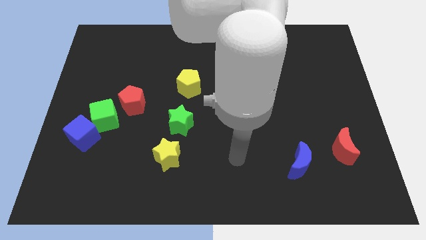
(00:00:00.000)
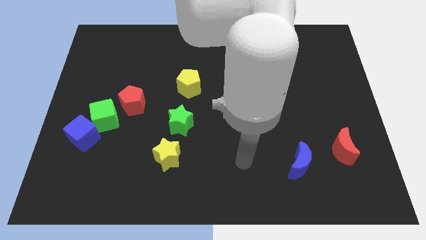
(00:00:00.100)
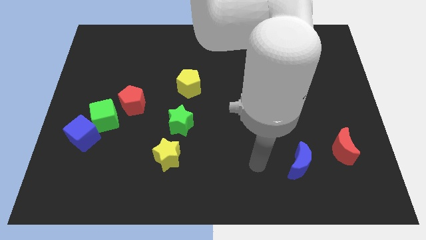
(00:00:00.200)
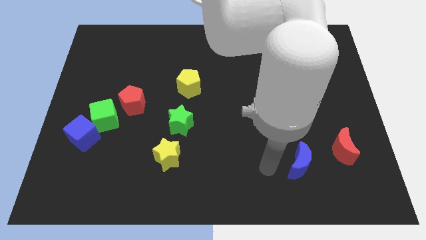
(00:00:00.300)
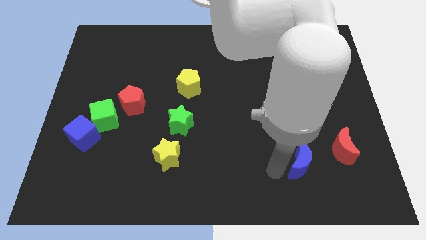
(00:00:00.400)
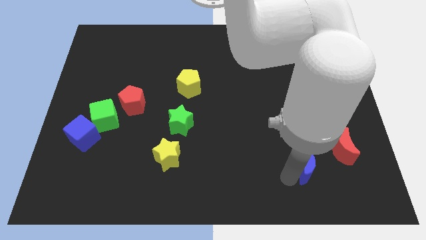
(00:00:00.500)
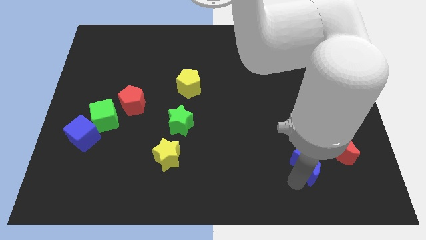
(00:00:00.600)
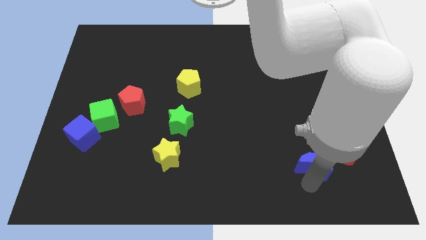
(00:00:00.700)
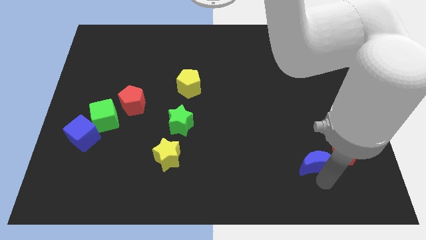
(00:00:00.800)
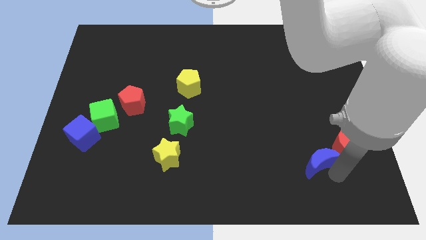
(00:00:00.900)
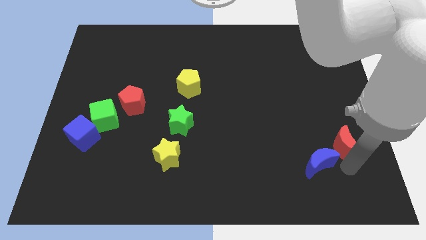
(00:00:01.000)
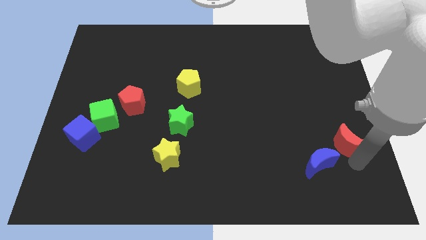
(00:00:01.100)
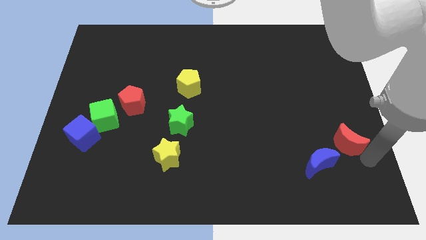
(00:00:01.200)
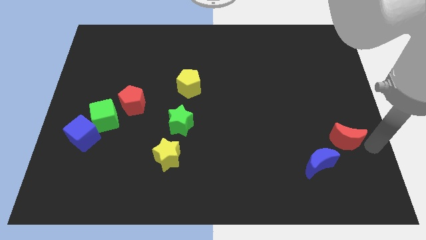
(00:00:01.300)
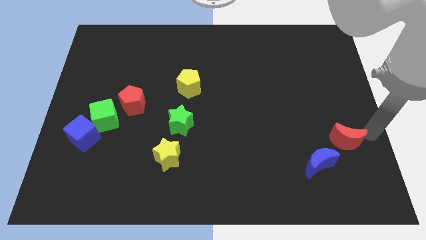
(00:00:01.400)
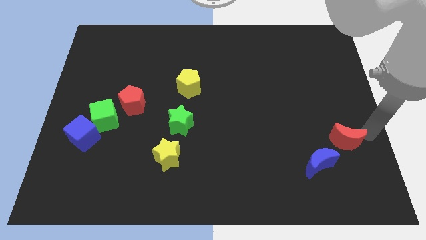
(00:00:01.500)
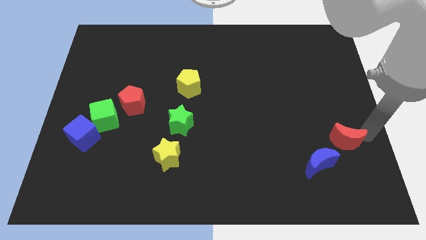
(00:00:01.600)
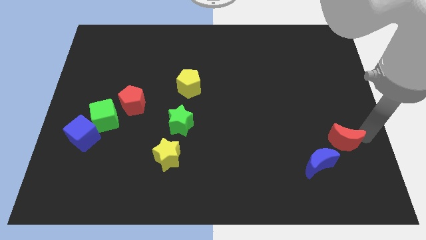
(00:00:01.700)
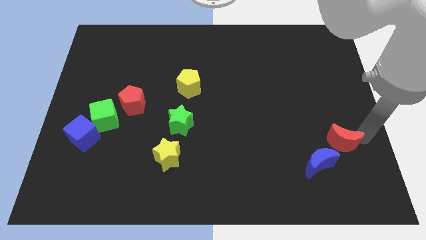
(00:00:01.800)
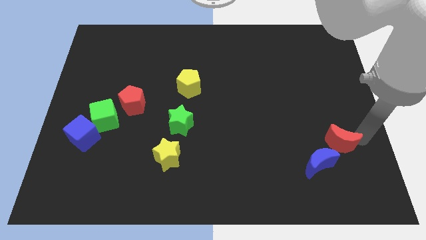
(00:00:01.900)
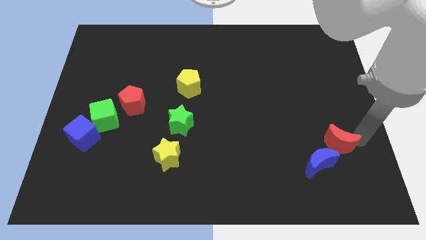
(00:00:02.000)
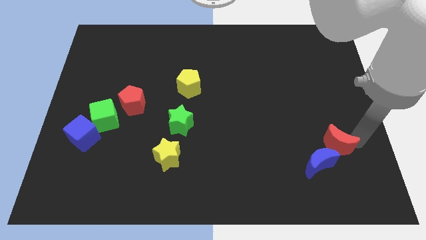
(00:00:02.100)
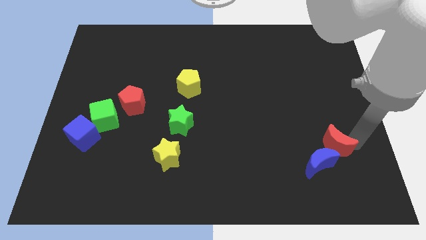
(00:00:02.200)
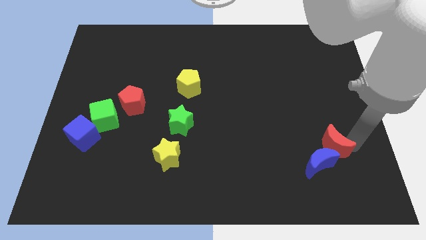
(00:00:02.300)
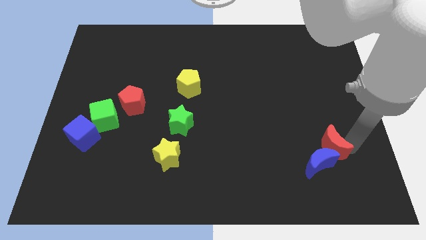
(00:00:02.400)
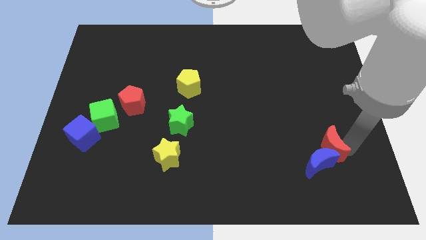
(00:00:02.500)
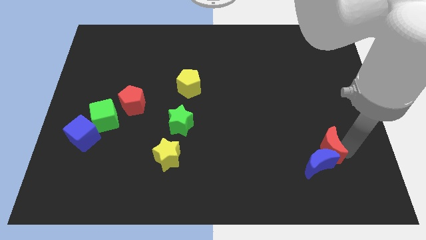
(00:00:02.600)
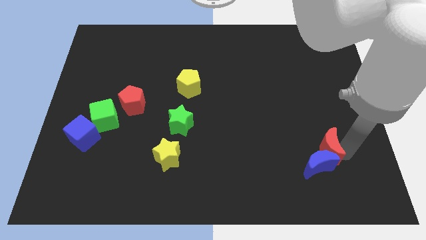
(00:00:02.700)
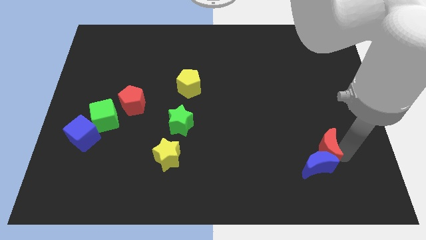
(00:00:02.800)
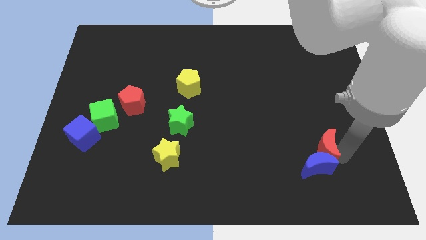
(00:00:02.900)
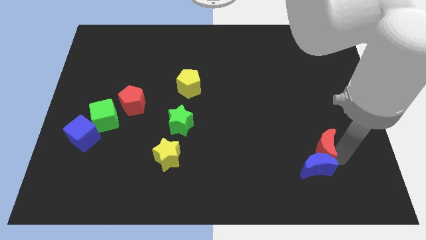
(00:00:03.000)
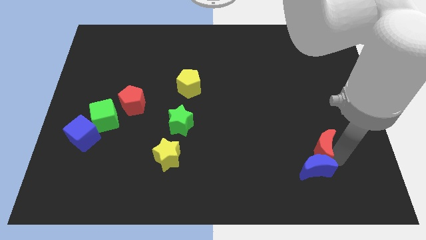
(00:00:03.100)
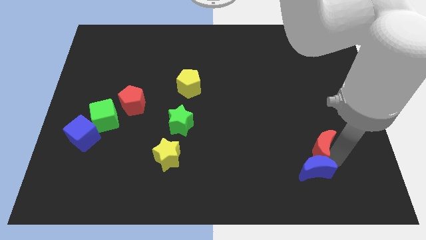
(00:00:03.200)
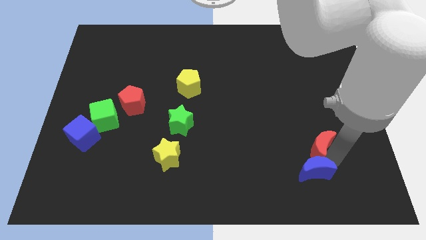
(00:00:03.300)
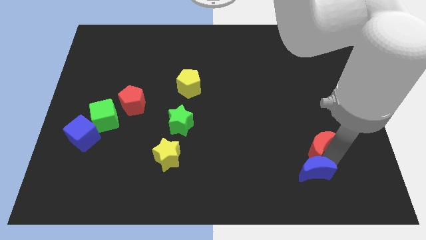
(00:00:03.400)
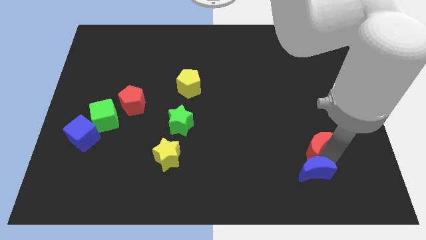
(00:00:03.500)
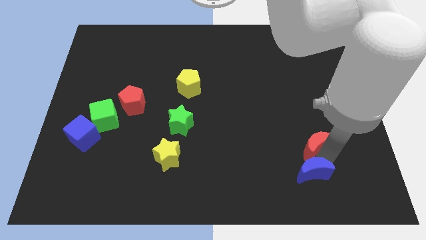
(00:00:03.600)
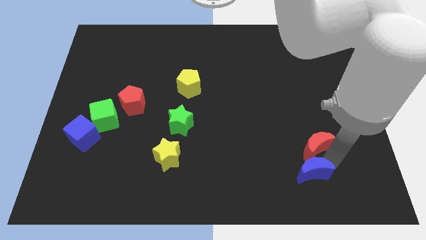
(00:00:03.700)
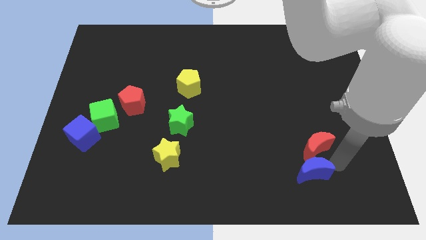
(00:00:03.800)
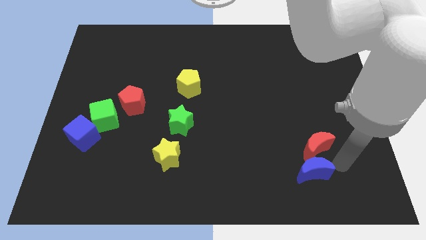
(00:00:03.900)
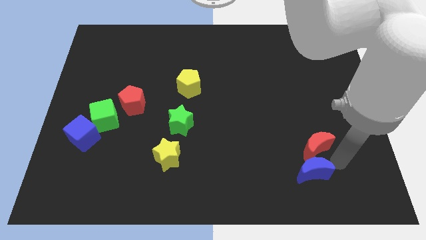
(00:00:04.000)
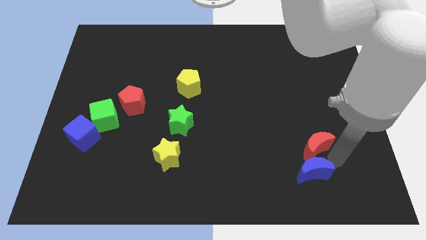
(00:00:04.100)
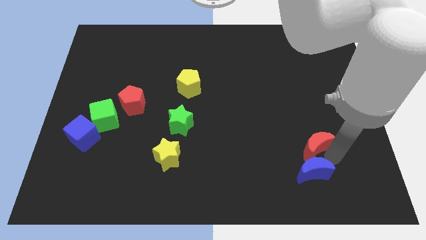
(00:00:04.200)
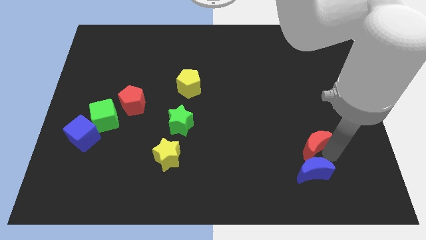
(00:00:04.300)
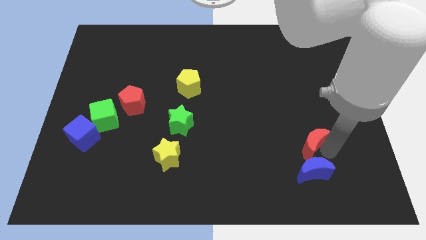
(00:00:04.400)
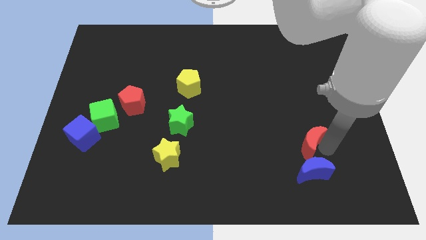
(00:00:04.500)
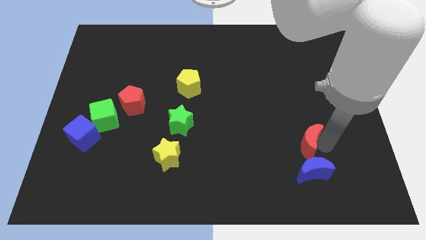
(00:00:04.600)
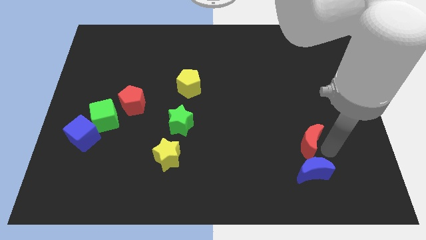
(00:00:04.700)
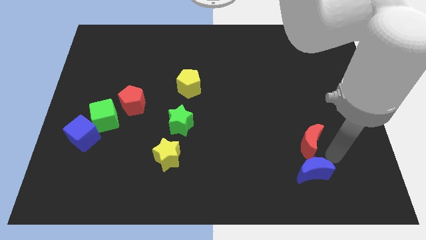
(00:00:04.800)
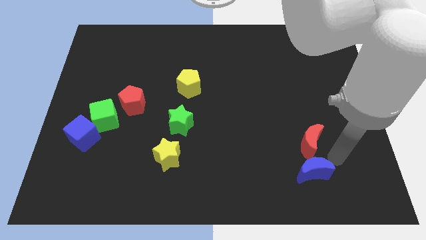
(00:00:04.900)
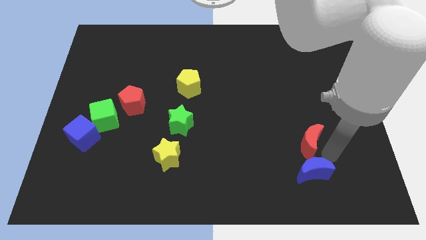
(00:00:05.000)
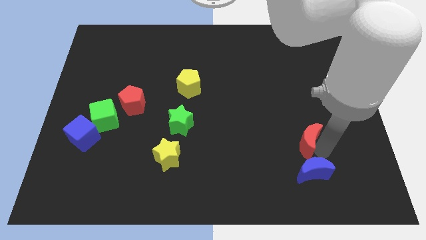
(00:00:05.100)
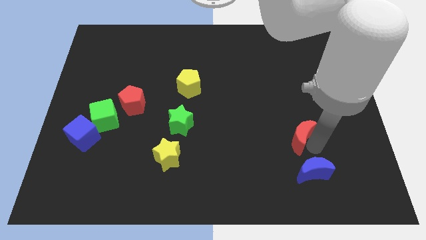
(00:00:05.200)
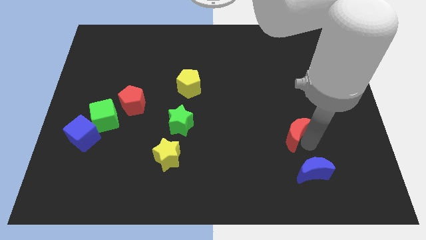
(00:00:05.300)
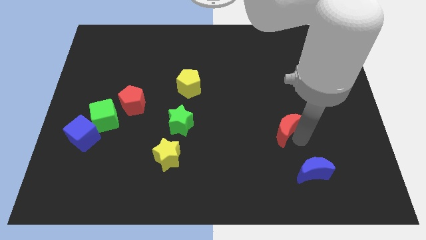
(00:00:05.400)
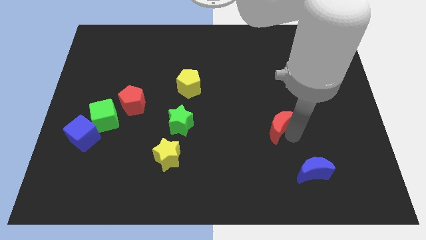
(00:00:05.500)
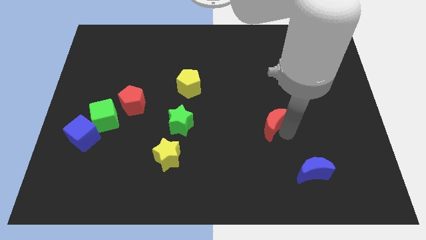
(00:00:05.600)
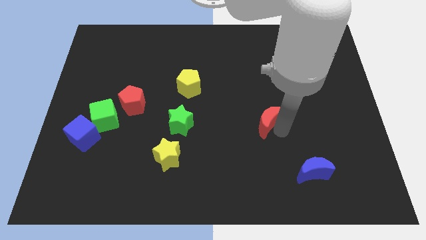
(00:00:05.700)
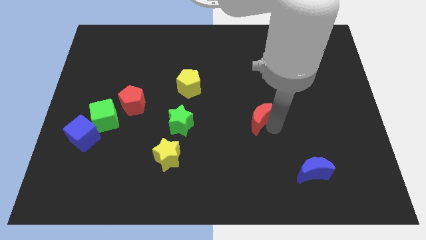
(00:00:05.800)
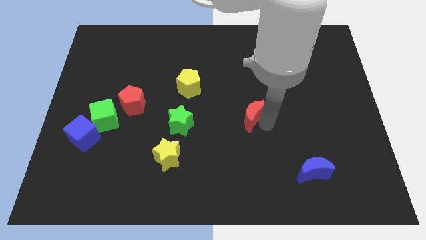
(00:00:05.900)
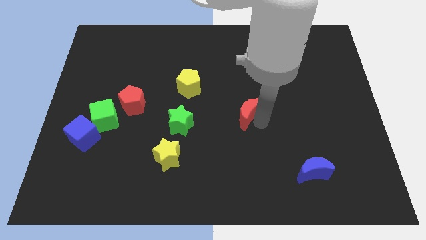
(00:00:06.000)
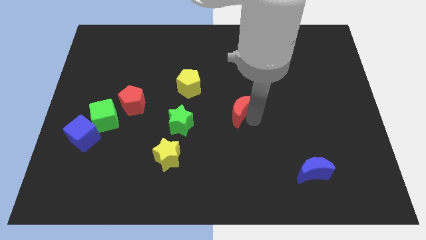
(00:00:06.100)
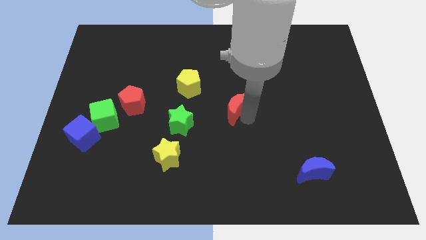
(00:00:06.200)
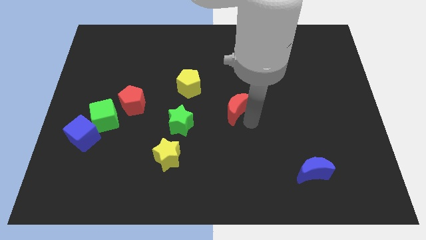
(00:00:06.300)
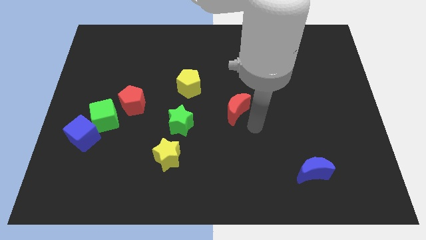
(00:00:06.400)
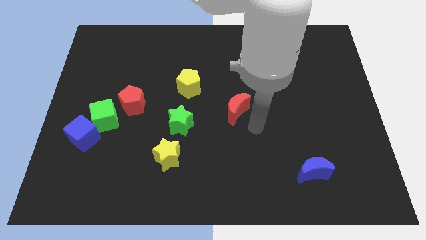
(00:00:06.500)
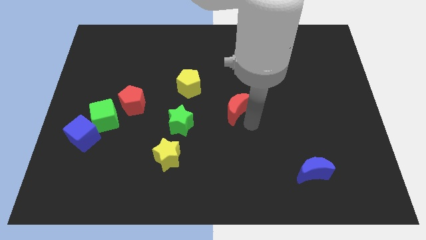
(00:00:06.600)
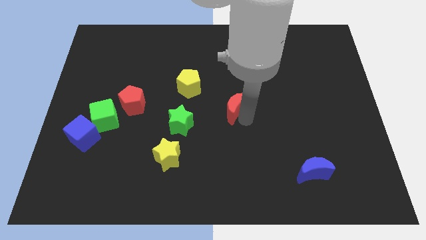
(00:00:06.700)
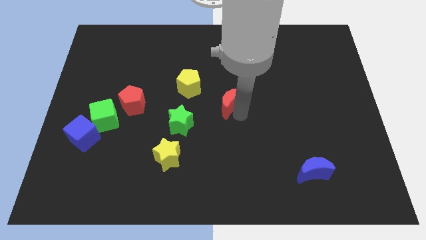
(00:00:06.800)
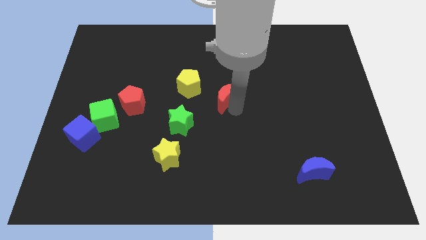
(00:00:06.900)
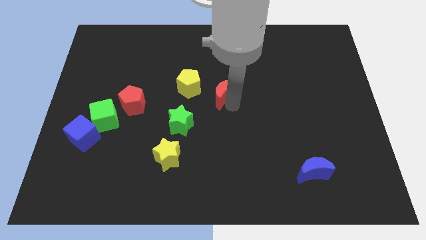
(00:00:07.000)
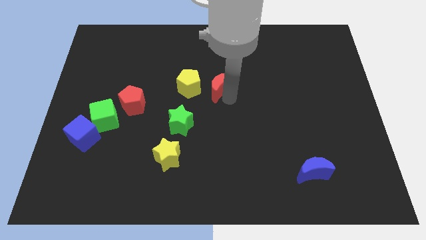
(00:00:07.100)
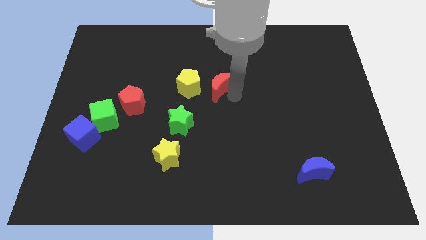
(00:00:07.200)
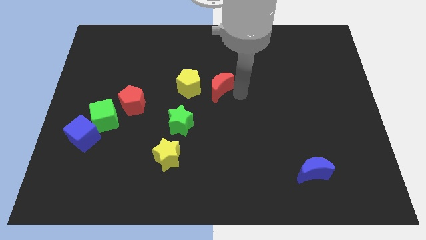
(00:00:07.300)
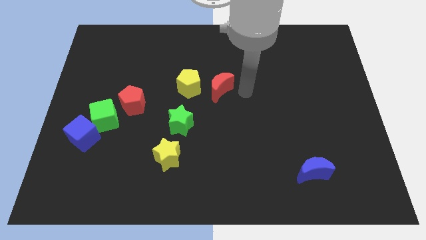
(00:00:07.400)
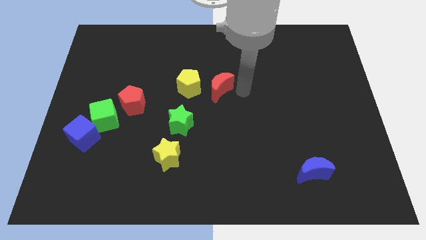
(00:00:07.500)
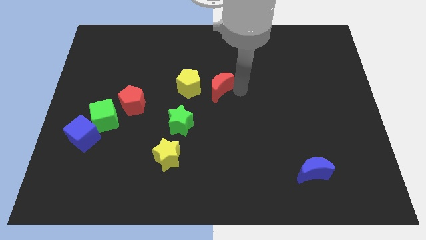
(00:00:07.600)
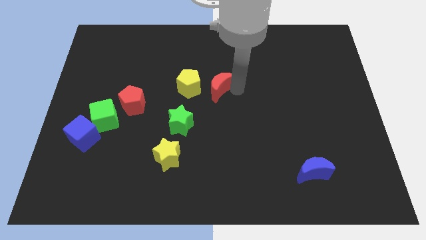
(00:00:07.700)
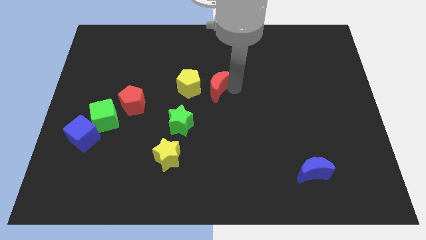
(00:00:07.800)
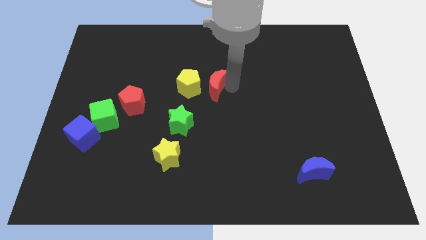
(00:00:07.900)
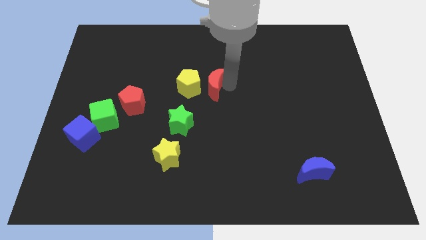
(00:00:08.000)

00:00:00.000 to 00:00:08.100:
slide the red moon towards the yellow pentagon

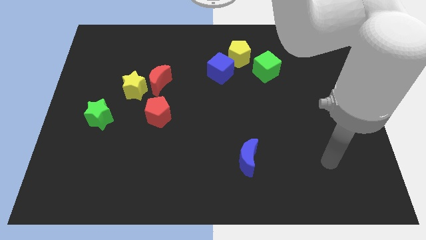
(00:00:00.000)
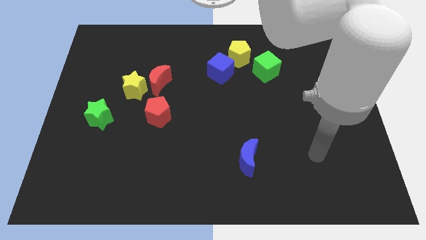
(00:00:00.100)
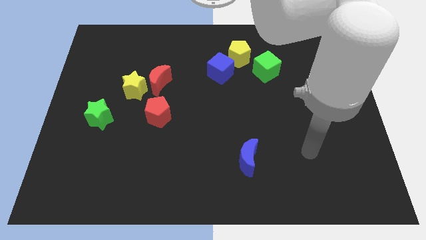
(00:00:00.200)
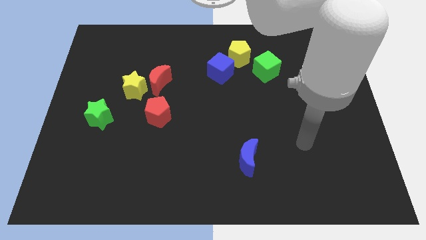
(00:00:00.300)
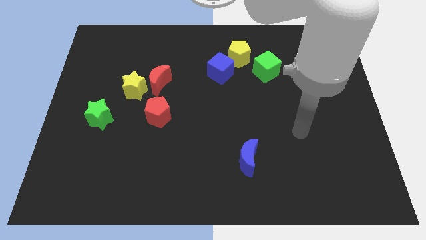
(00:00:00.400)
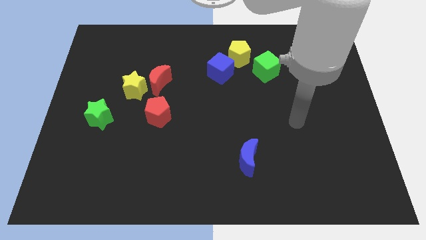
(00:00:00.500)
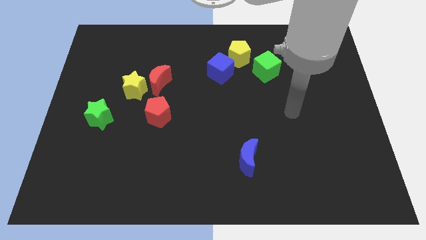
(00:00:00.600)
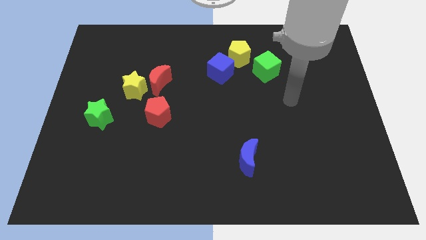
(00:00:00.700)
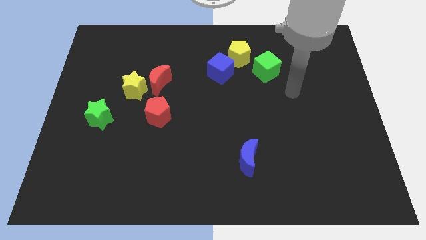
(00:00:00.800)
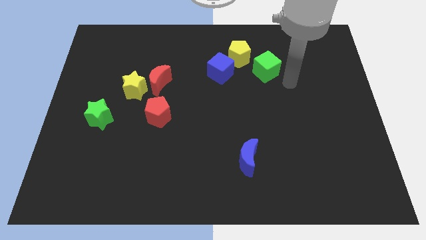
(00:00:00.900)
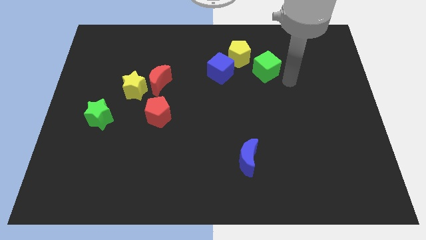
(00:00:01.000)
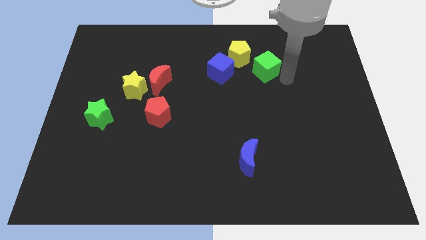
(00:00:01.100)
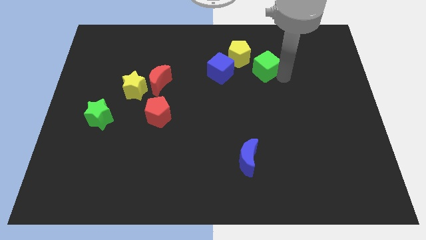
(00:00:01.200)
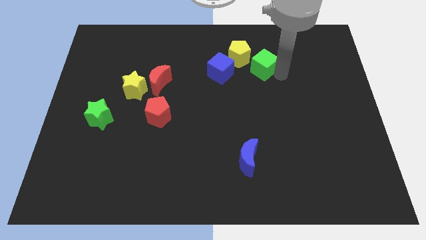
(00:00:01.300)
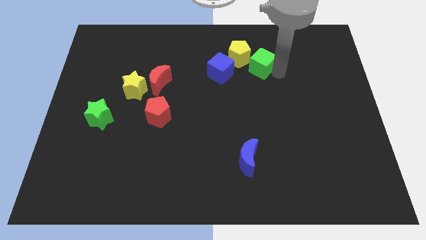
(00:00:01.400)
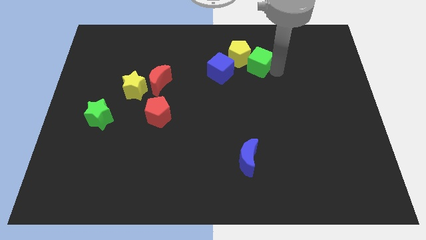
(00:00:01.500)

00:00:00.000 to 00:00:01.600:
move the green cube next to the yellow pentagon
